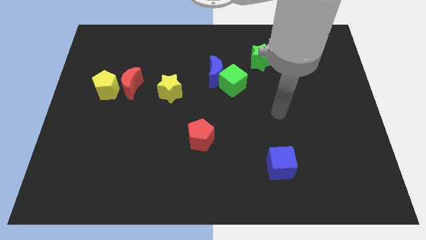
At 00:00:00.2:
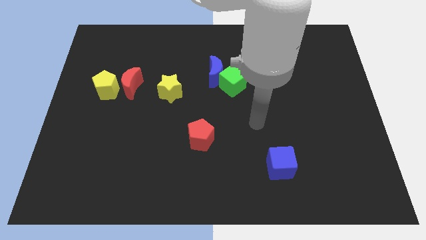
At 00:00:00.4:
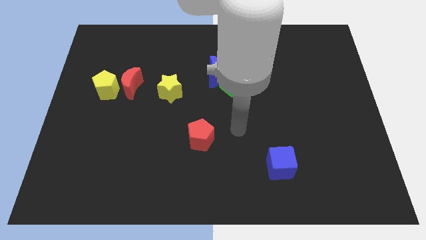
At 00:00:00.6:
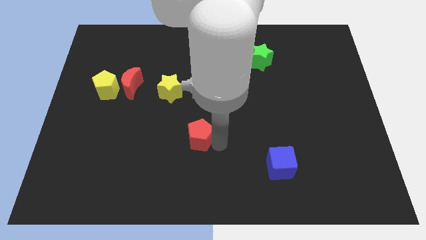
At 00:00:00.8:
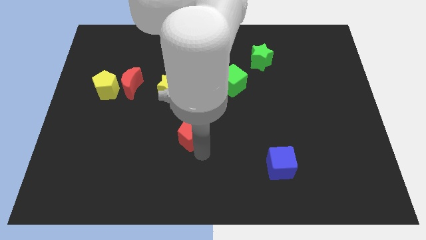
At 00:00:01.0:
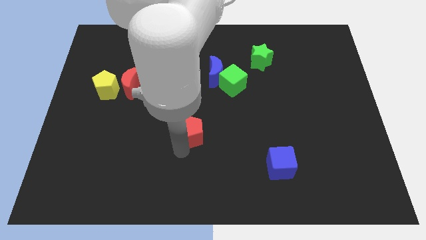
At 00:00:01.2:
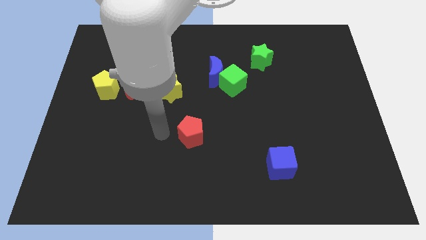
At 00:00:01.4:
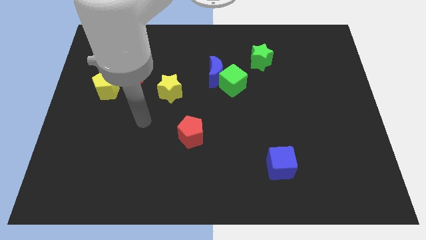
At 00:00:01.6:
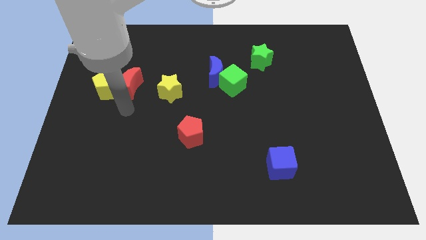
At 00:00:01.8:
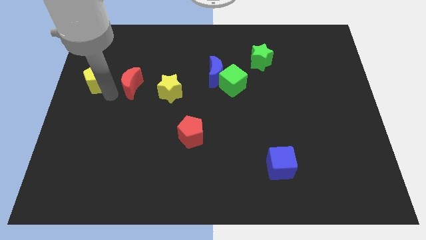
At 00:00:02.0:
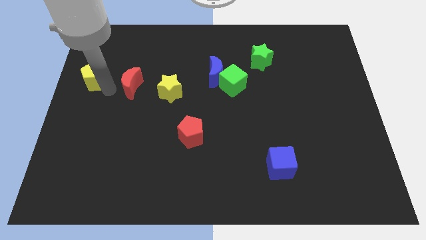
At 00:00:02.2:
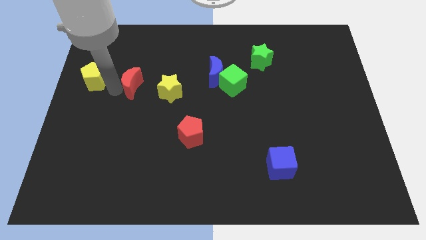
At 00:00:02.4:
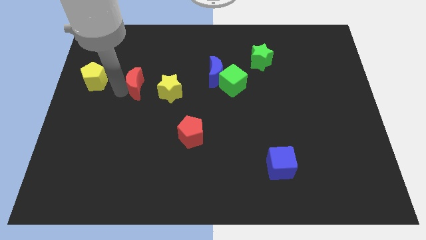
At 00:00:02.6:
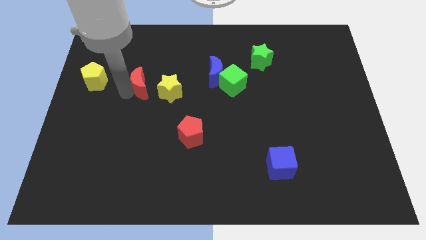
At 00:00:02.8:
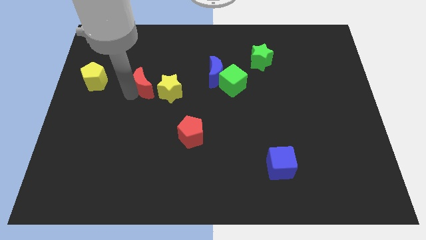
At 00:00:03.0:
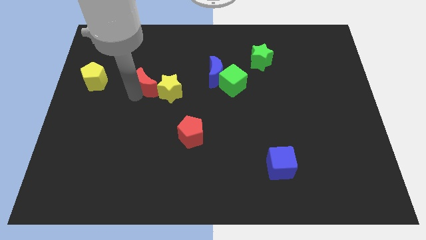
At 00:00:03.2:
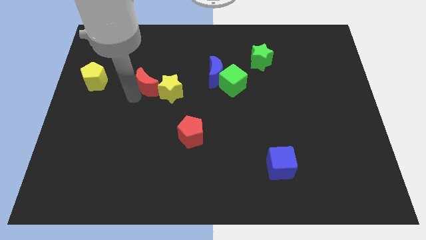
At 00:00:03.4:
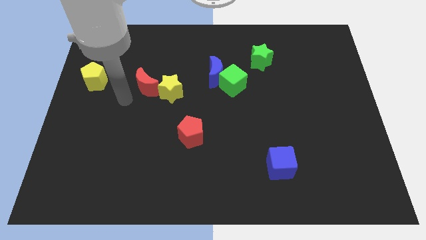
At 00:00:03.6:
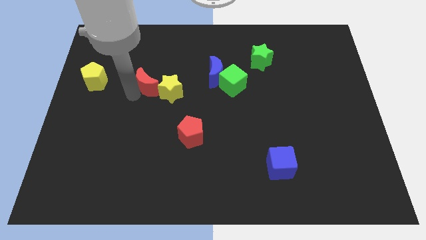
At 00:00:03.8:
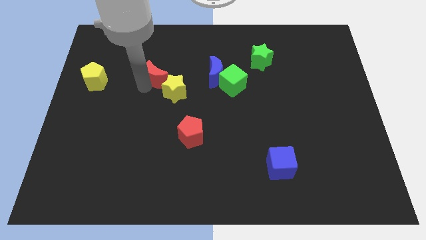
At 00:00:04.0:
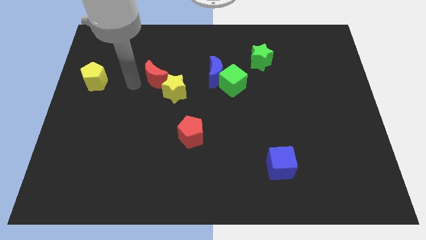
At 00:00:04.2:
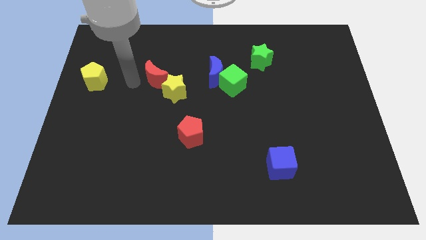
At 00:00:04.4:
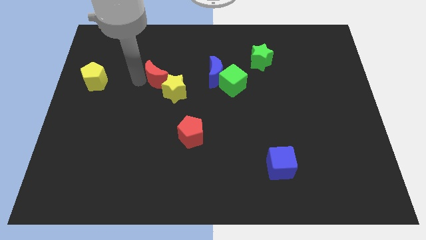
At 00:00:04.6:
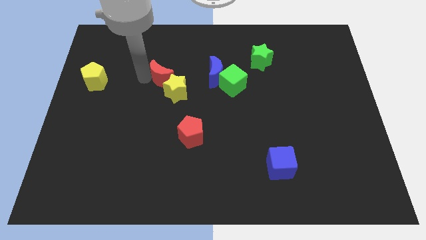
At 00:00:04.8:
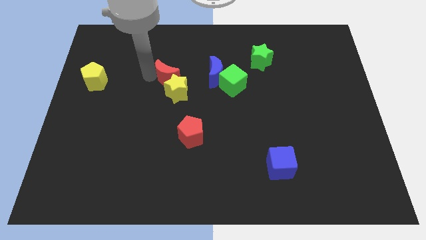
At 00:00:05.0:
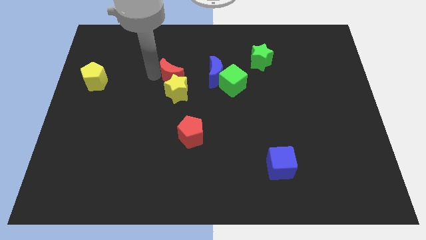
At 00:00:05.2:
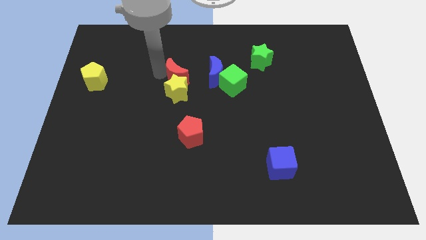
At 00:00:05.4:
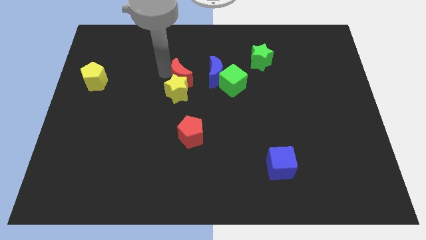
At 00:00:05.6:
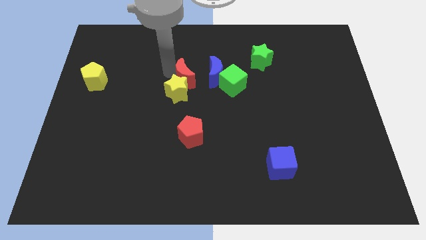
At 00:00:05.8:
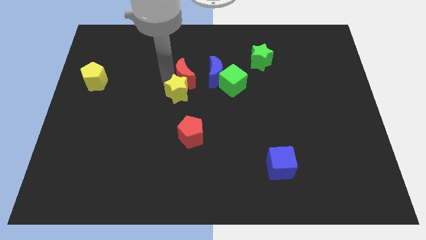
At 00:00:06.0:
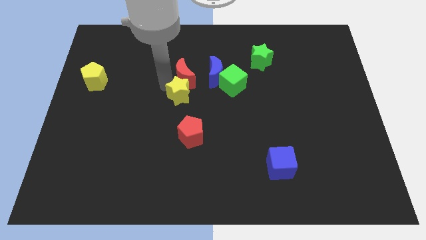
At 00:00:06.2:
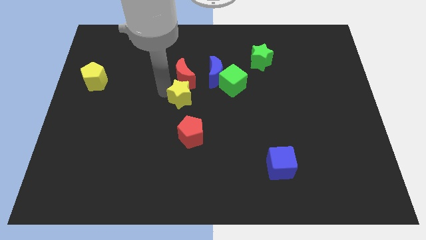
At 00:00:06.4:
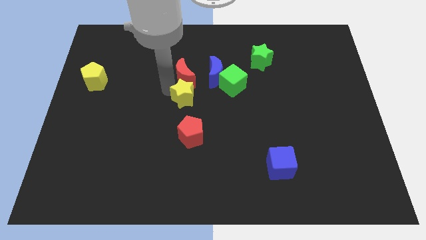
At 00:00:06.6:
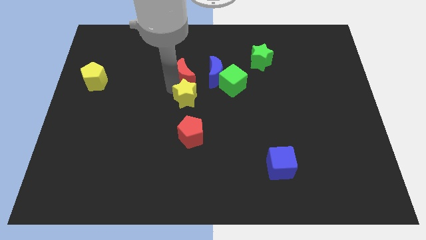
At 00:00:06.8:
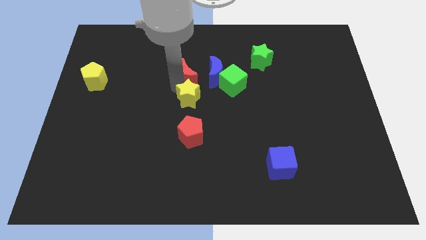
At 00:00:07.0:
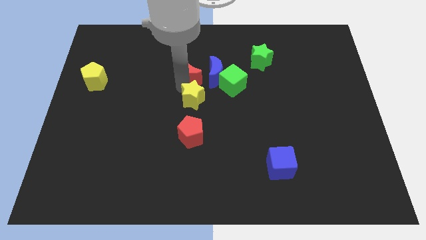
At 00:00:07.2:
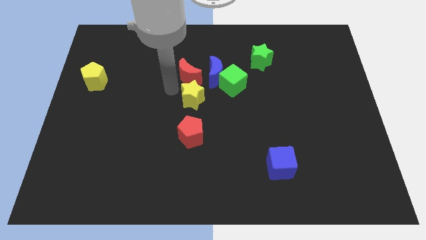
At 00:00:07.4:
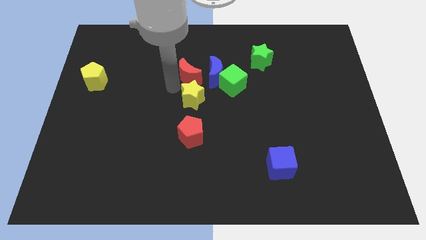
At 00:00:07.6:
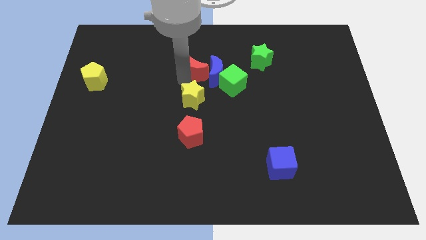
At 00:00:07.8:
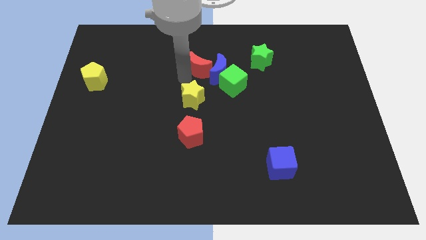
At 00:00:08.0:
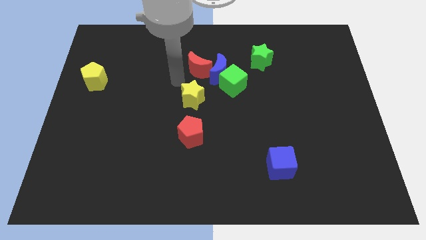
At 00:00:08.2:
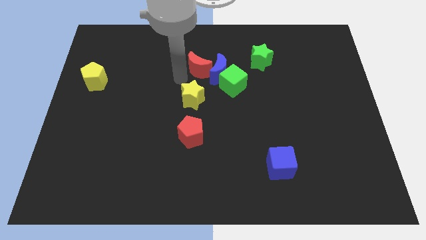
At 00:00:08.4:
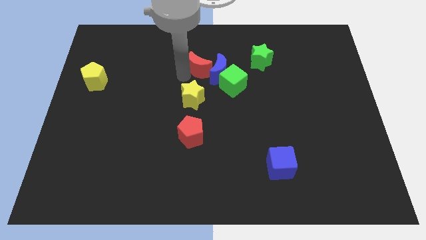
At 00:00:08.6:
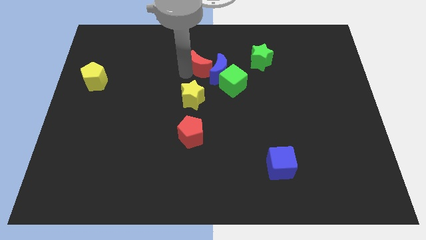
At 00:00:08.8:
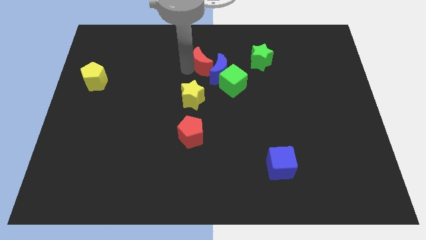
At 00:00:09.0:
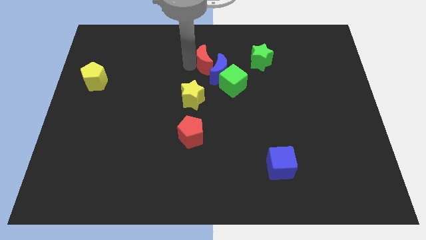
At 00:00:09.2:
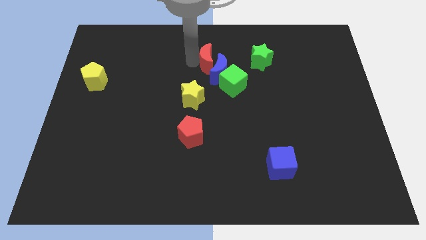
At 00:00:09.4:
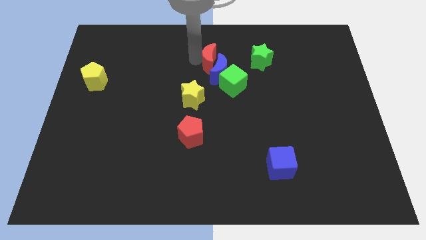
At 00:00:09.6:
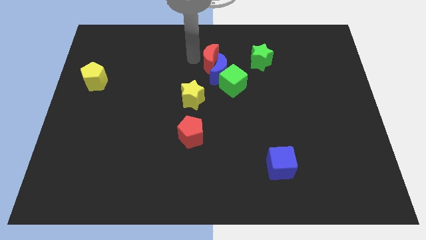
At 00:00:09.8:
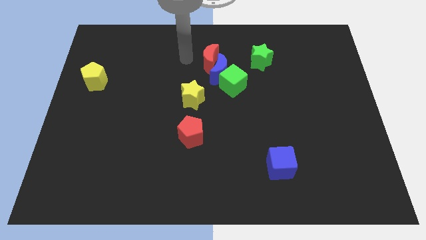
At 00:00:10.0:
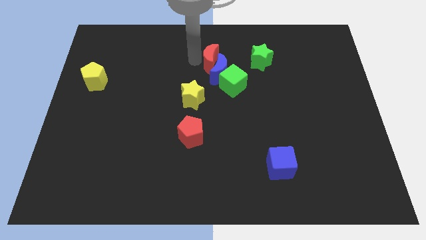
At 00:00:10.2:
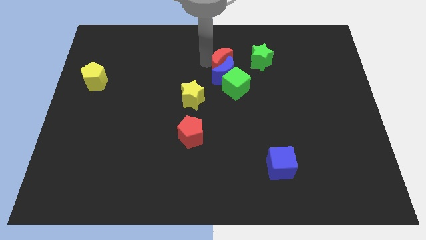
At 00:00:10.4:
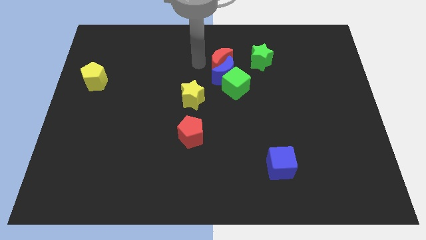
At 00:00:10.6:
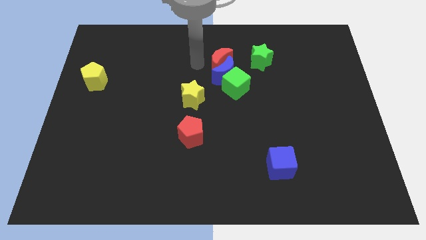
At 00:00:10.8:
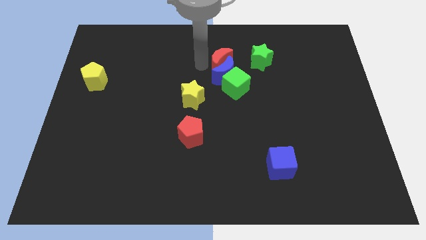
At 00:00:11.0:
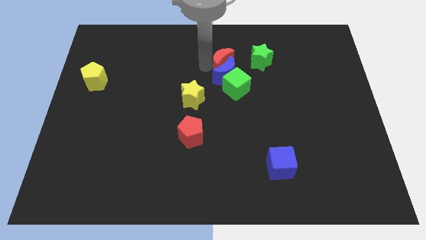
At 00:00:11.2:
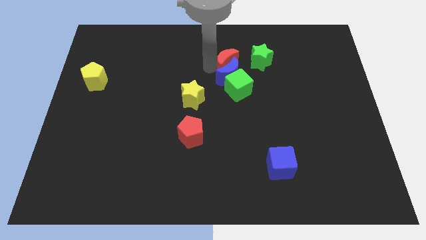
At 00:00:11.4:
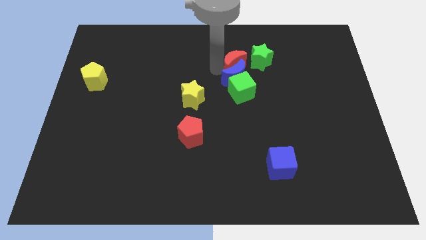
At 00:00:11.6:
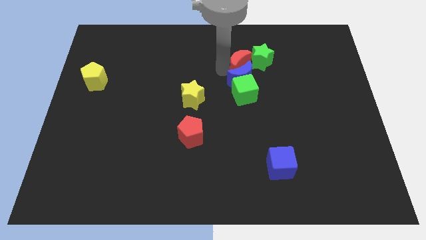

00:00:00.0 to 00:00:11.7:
put the red moon towards the green star

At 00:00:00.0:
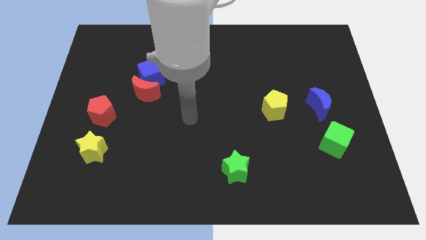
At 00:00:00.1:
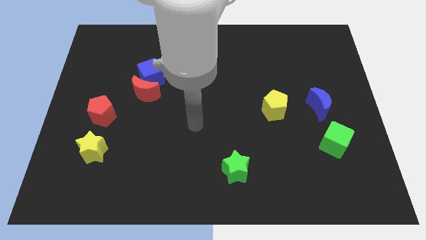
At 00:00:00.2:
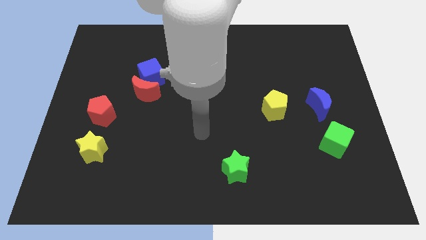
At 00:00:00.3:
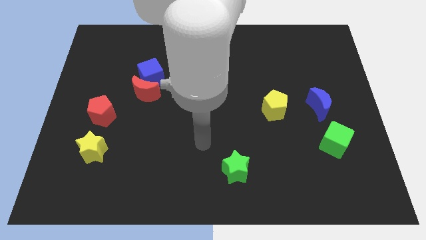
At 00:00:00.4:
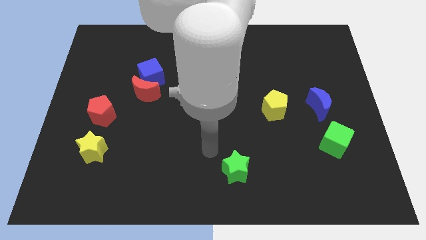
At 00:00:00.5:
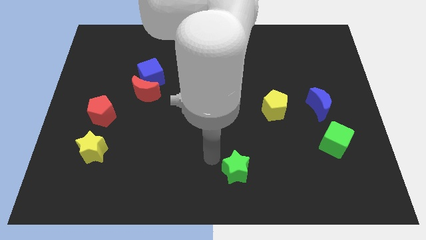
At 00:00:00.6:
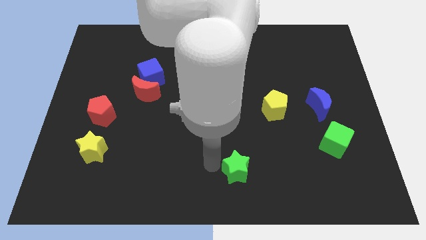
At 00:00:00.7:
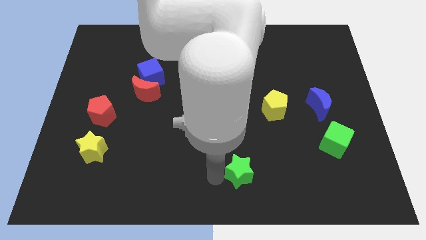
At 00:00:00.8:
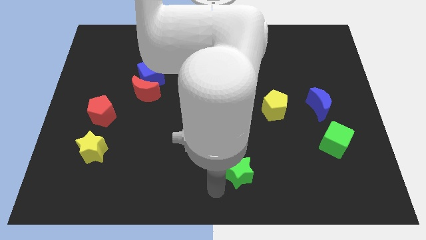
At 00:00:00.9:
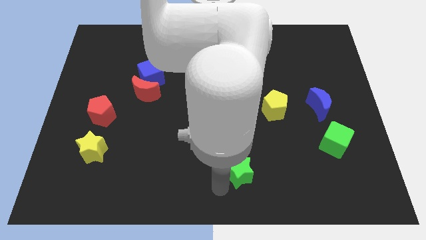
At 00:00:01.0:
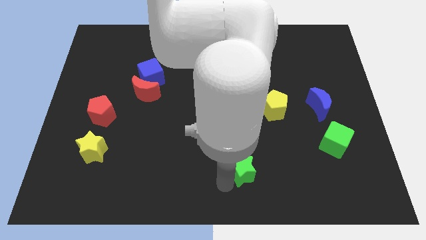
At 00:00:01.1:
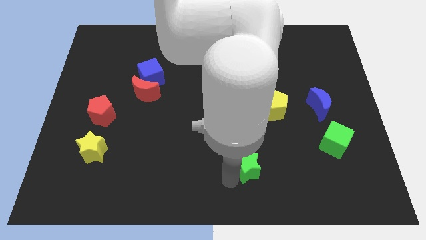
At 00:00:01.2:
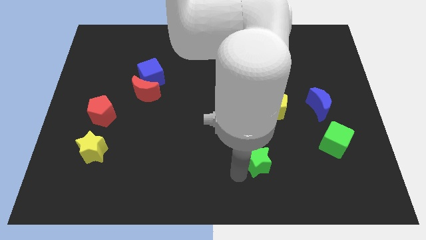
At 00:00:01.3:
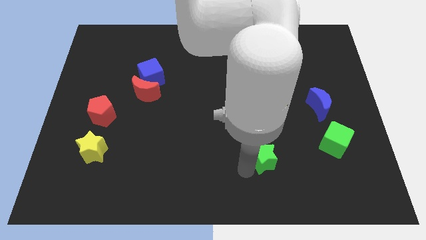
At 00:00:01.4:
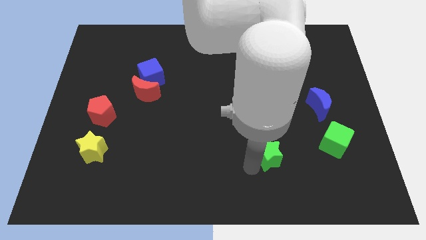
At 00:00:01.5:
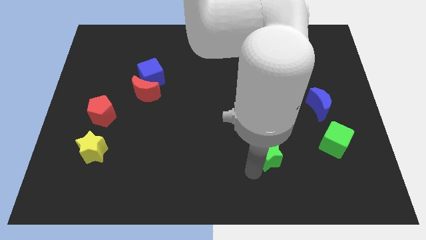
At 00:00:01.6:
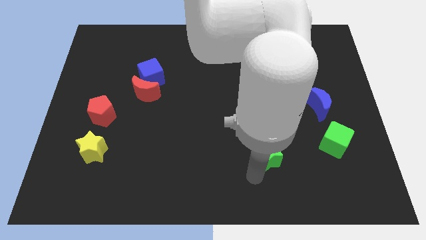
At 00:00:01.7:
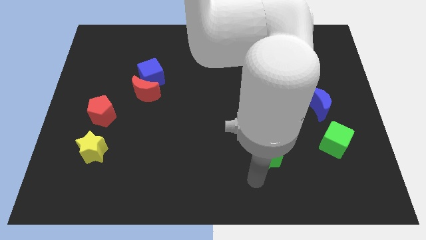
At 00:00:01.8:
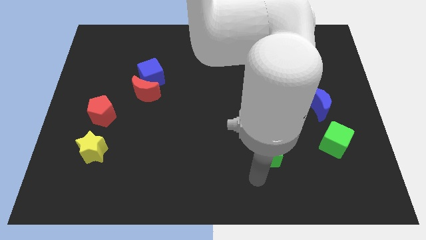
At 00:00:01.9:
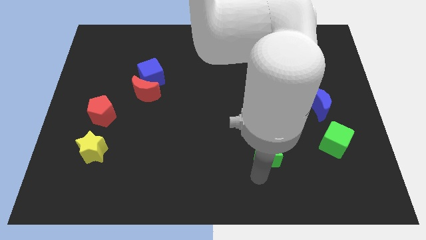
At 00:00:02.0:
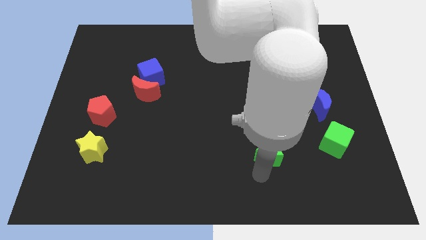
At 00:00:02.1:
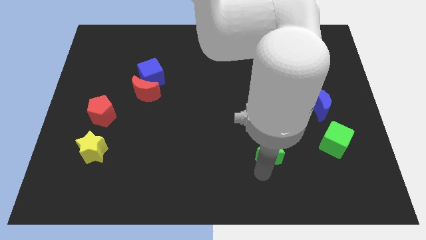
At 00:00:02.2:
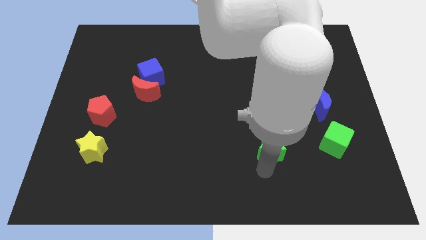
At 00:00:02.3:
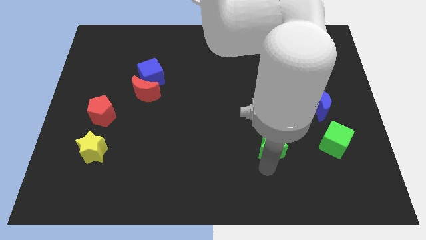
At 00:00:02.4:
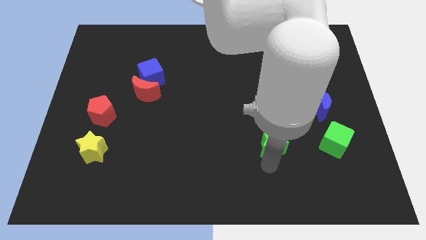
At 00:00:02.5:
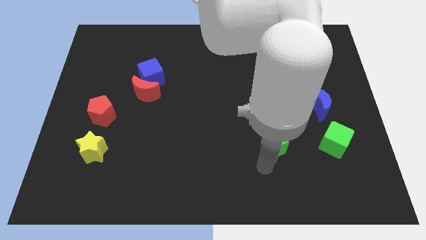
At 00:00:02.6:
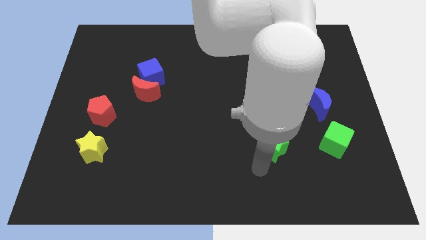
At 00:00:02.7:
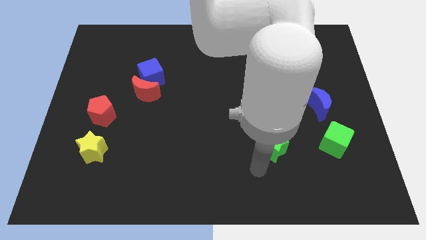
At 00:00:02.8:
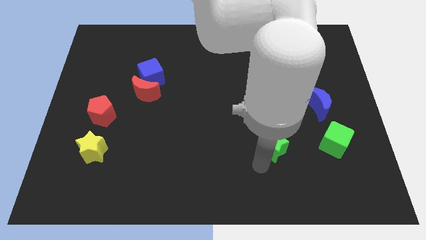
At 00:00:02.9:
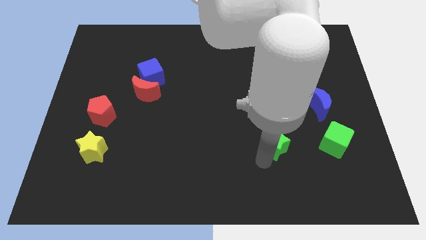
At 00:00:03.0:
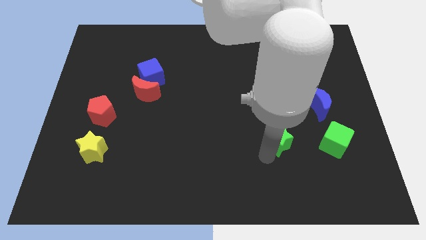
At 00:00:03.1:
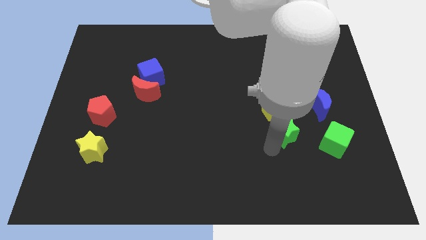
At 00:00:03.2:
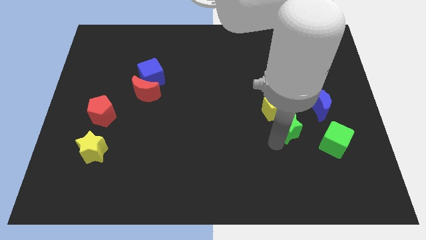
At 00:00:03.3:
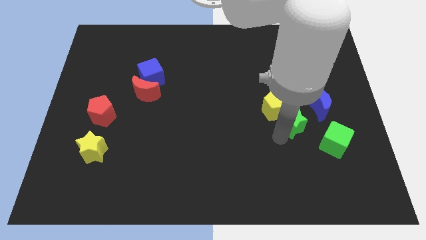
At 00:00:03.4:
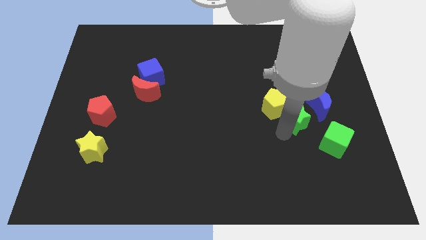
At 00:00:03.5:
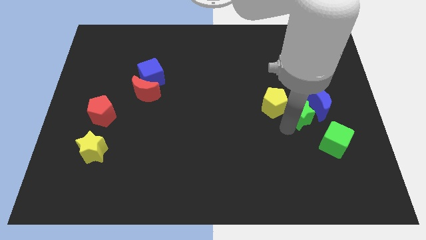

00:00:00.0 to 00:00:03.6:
push the green star towards the blue moon
